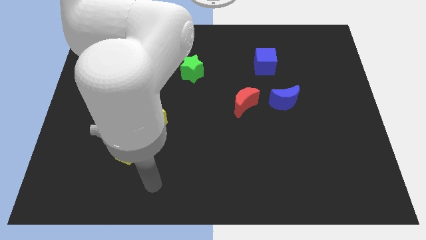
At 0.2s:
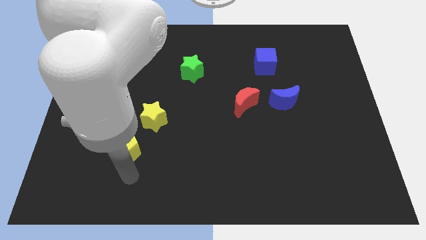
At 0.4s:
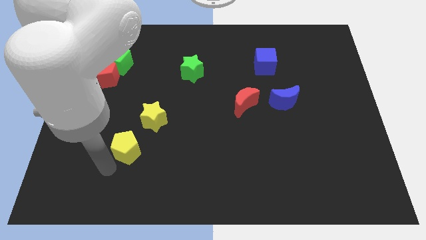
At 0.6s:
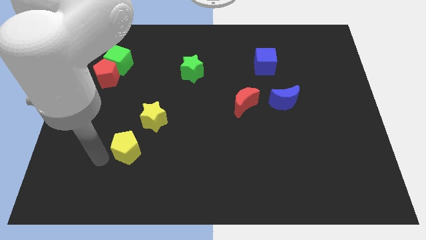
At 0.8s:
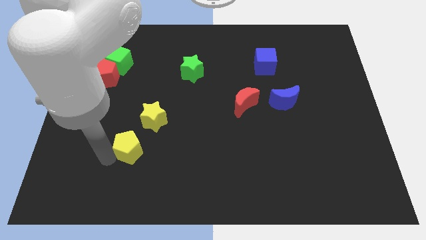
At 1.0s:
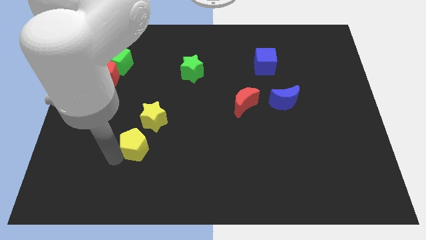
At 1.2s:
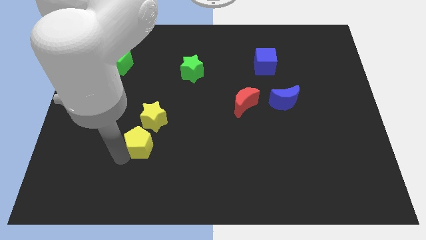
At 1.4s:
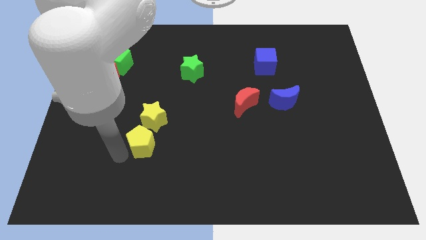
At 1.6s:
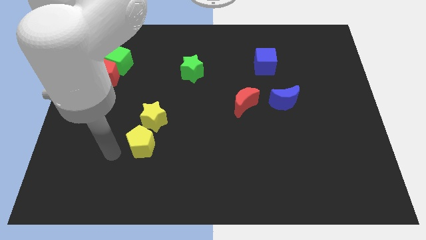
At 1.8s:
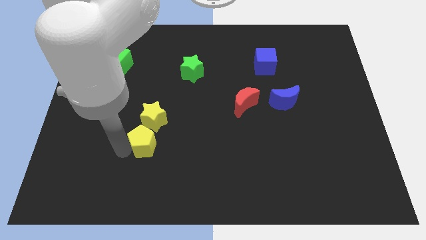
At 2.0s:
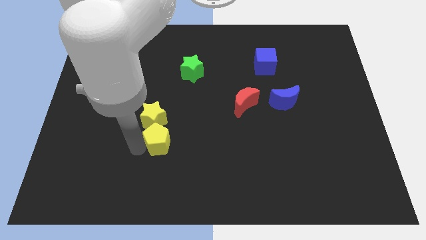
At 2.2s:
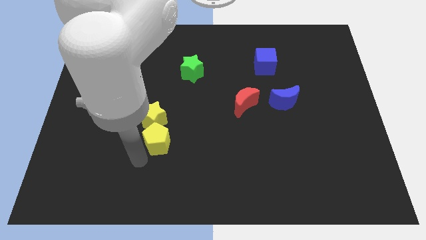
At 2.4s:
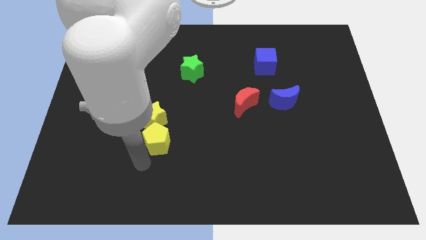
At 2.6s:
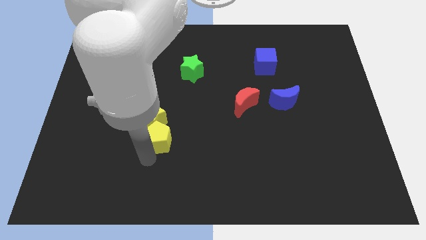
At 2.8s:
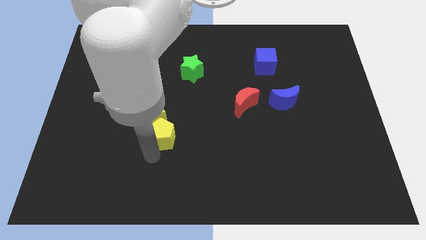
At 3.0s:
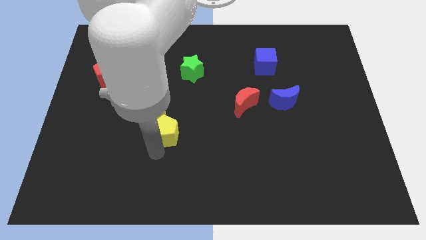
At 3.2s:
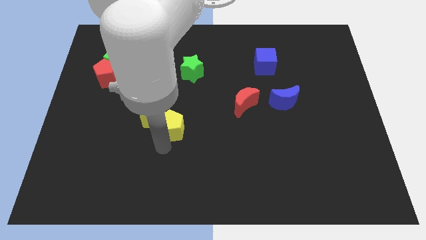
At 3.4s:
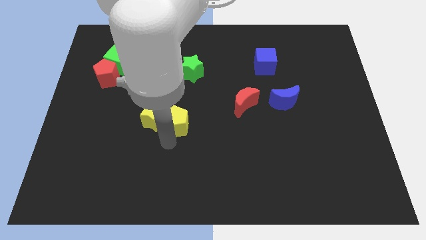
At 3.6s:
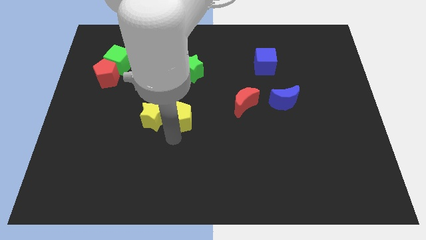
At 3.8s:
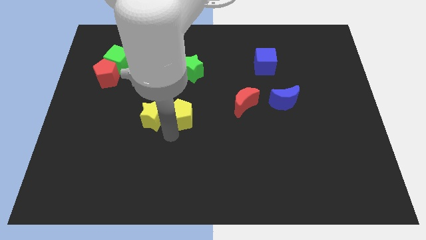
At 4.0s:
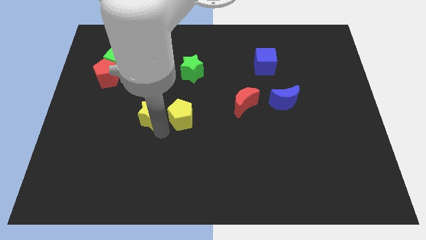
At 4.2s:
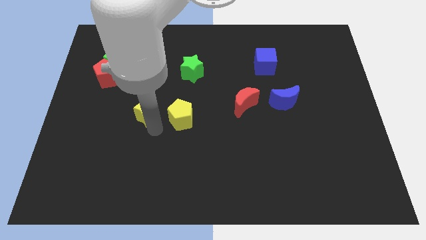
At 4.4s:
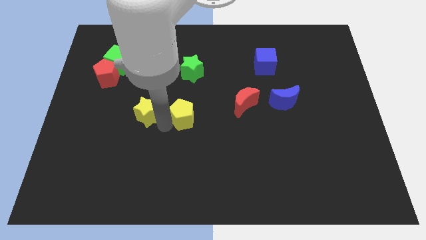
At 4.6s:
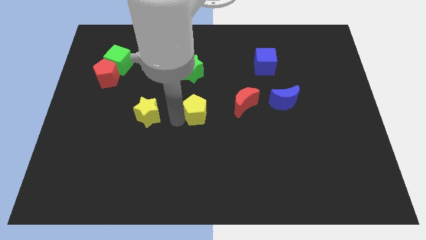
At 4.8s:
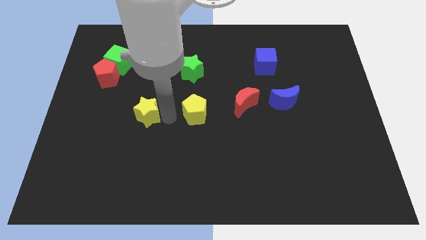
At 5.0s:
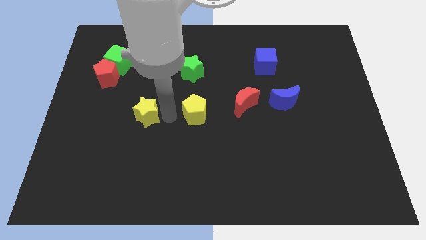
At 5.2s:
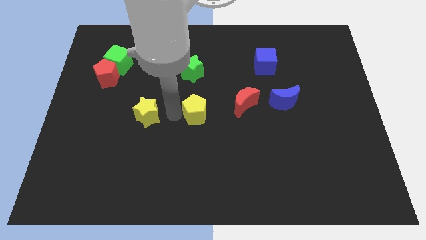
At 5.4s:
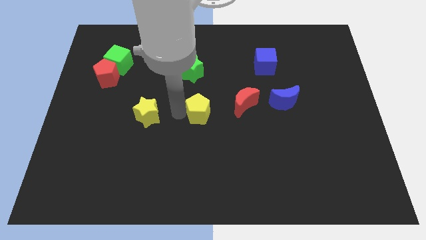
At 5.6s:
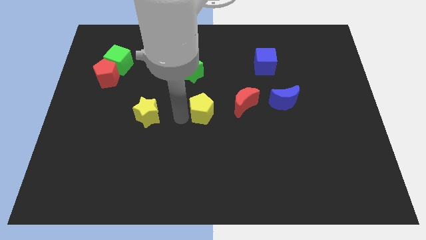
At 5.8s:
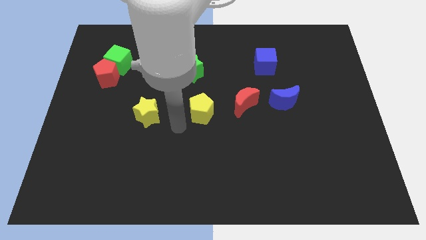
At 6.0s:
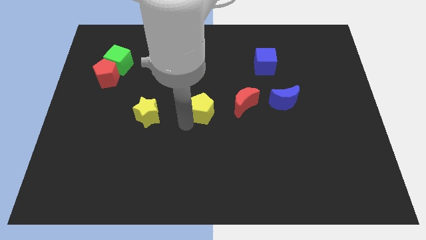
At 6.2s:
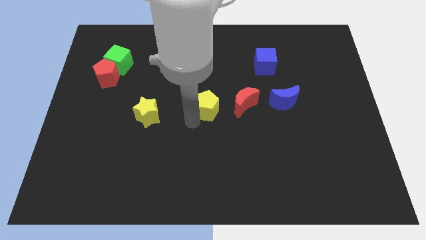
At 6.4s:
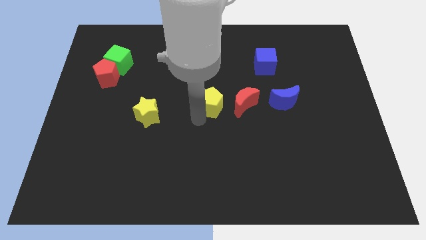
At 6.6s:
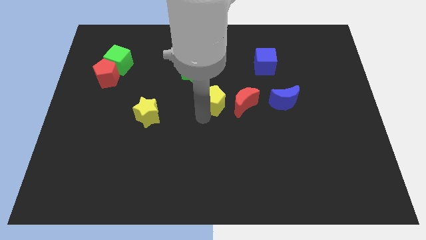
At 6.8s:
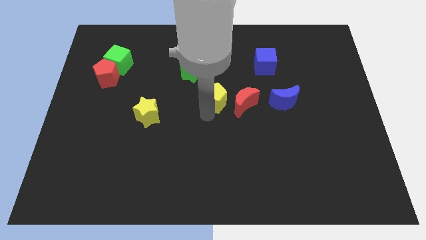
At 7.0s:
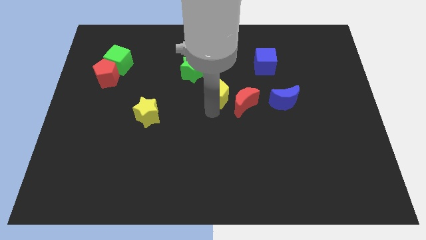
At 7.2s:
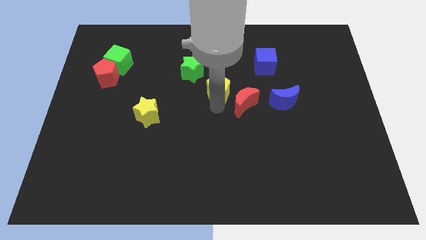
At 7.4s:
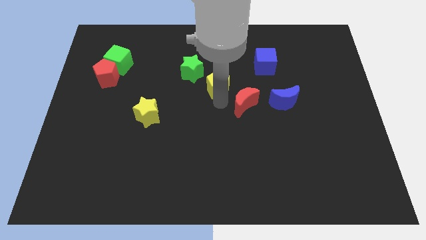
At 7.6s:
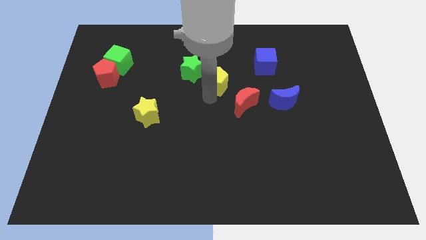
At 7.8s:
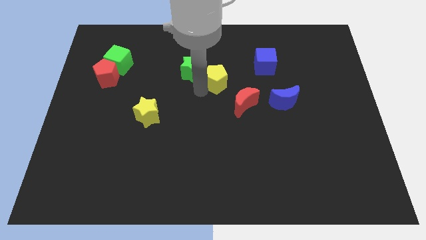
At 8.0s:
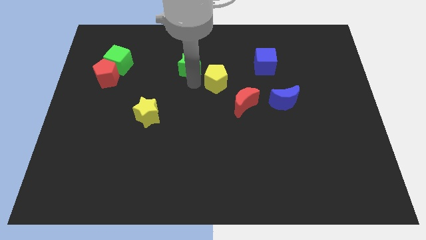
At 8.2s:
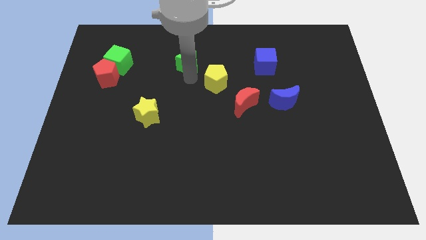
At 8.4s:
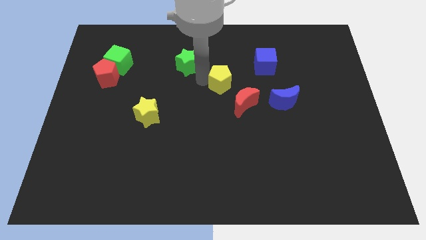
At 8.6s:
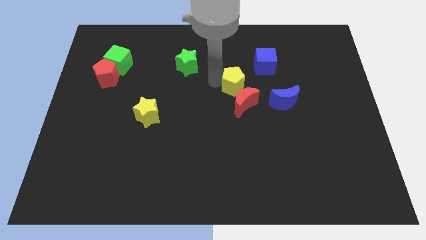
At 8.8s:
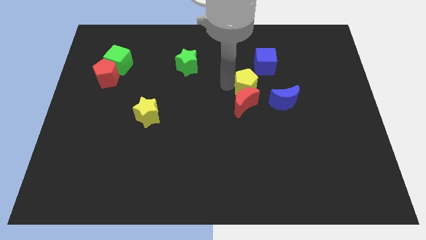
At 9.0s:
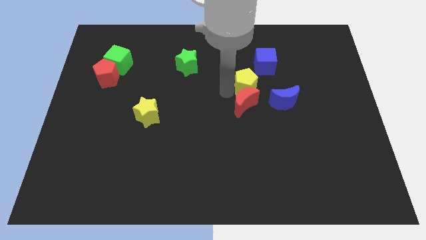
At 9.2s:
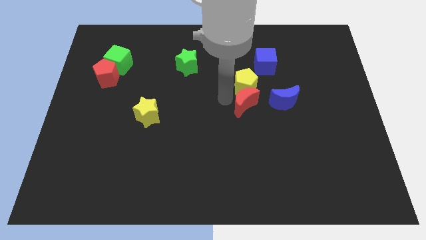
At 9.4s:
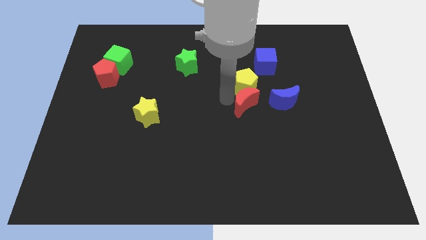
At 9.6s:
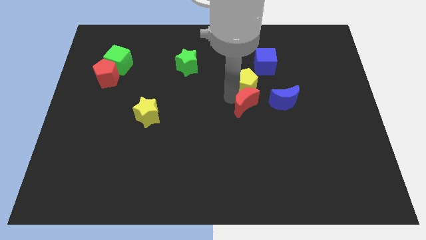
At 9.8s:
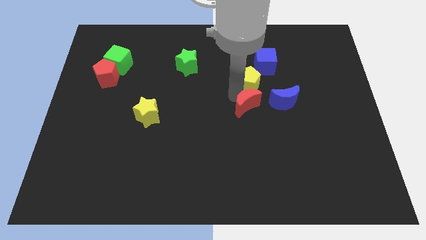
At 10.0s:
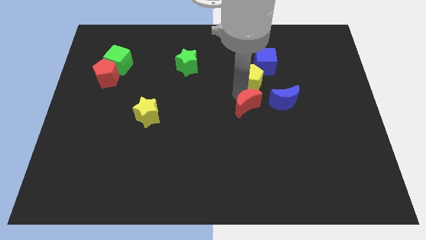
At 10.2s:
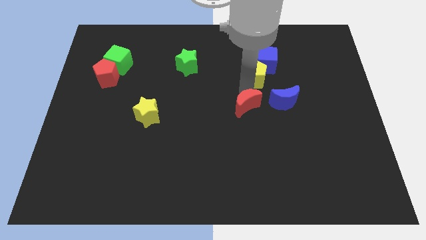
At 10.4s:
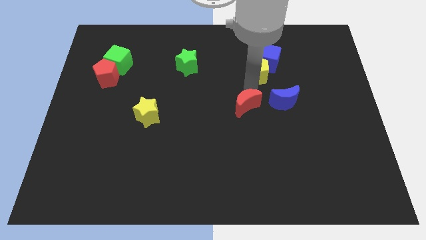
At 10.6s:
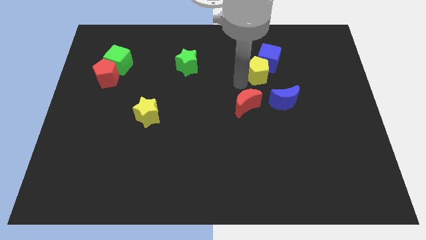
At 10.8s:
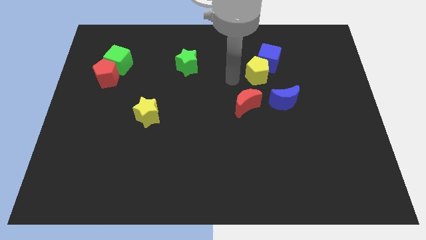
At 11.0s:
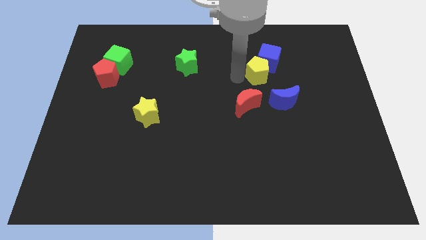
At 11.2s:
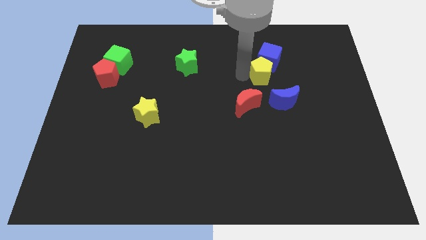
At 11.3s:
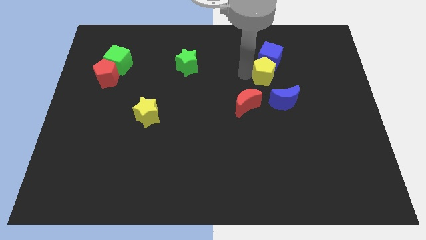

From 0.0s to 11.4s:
put the yellow pentagon above the blue moon

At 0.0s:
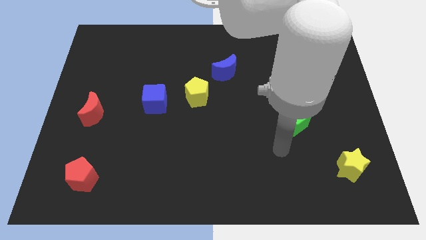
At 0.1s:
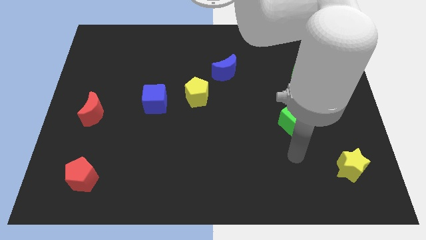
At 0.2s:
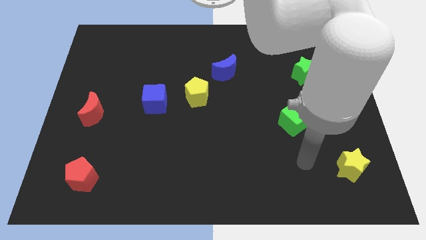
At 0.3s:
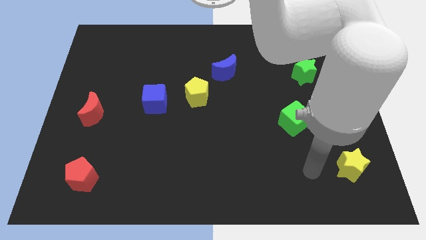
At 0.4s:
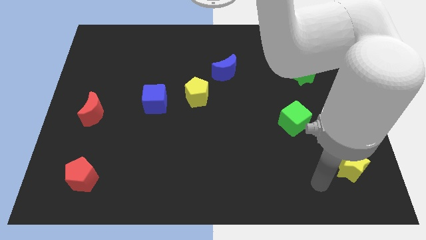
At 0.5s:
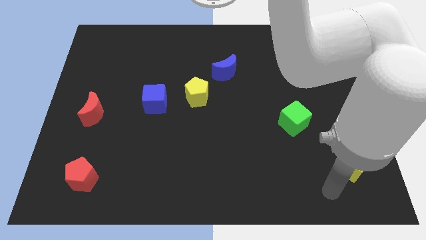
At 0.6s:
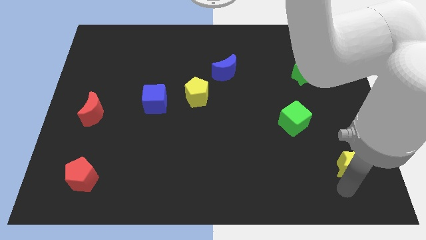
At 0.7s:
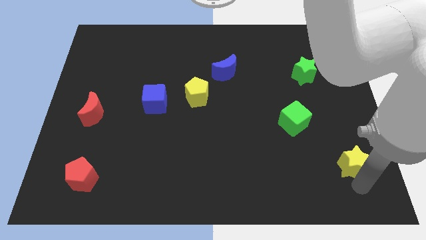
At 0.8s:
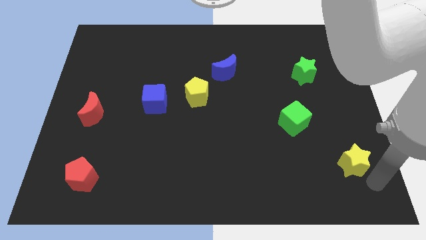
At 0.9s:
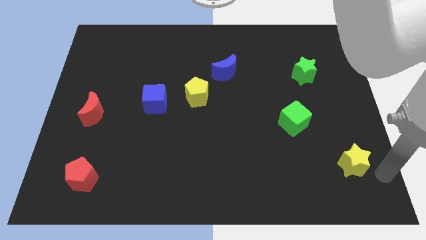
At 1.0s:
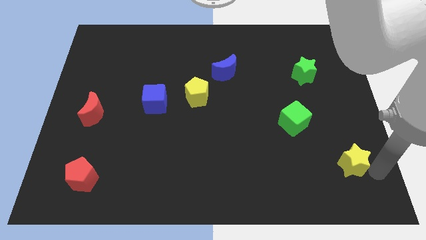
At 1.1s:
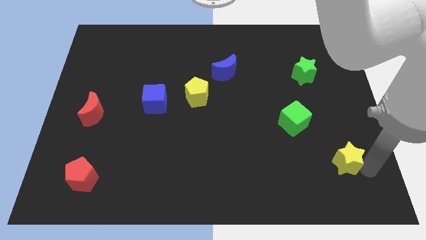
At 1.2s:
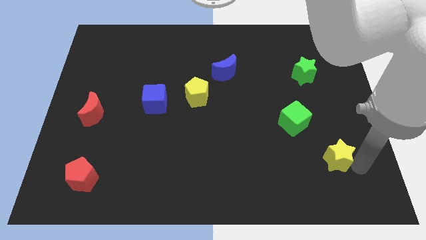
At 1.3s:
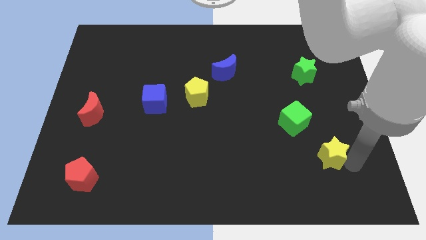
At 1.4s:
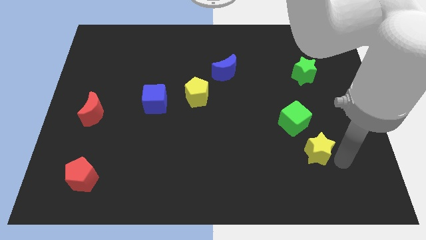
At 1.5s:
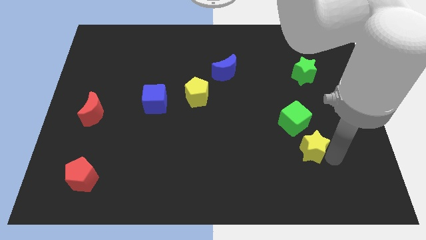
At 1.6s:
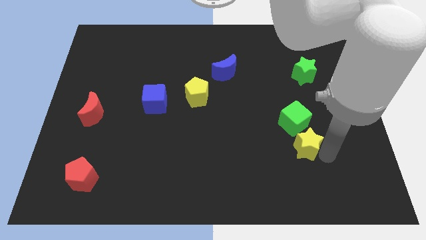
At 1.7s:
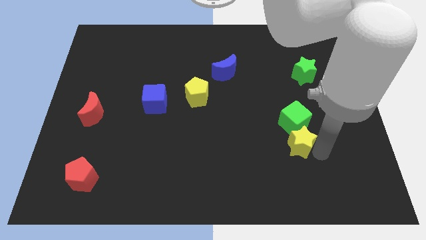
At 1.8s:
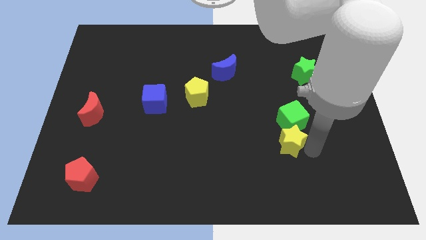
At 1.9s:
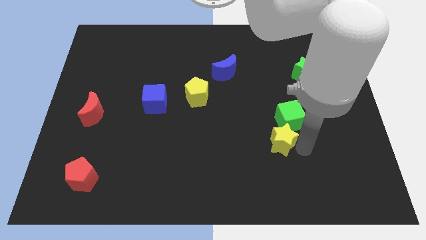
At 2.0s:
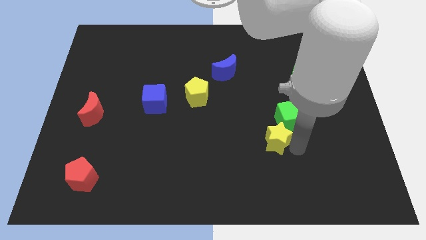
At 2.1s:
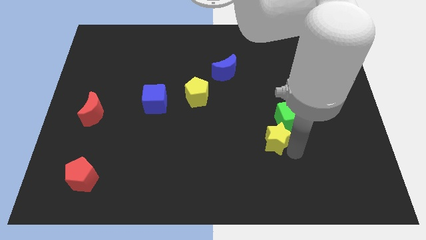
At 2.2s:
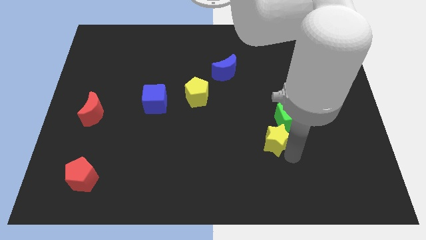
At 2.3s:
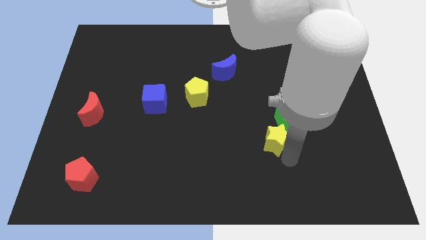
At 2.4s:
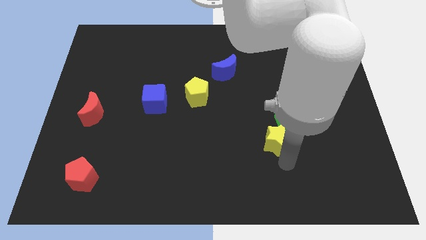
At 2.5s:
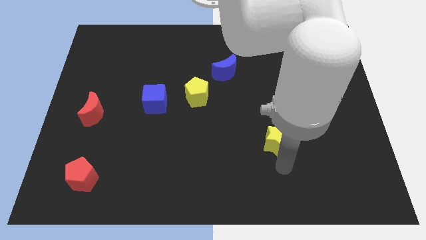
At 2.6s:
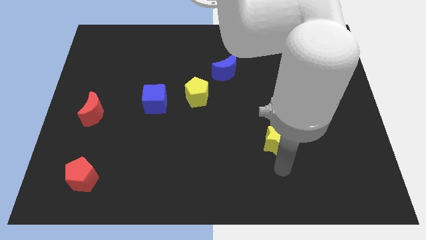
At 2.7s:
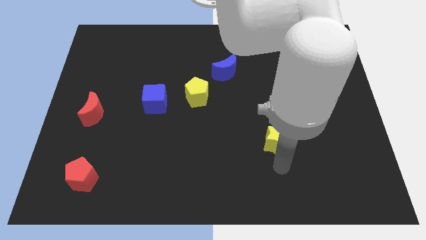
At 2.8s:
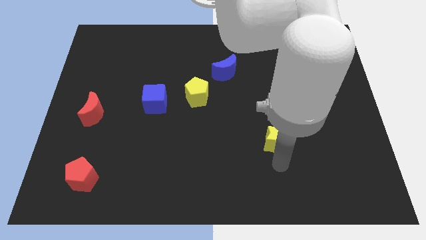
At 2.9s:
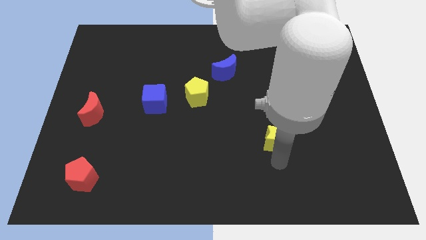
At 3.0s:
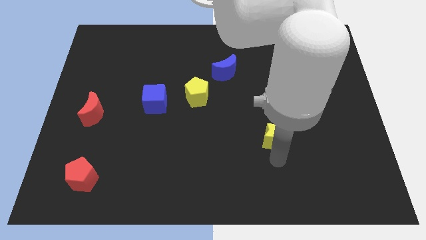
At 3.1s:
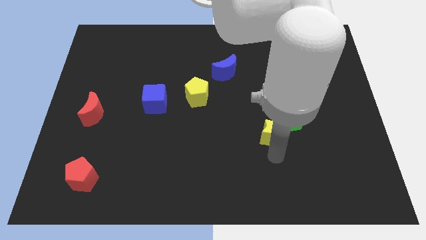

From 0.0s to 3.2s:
put the yellow star just left of the green cube
